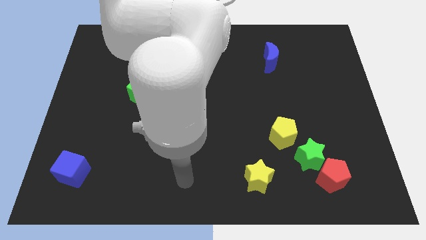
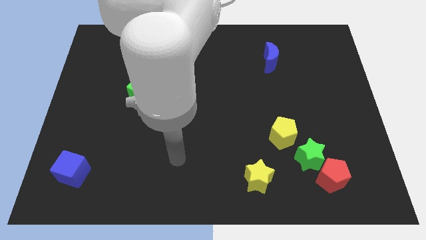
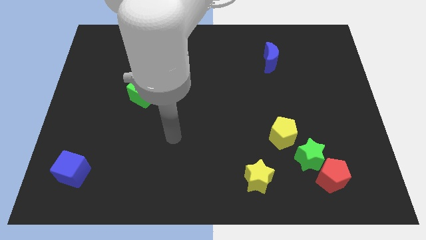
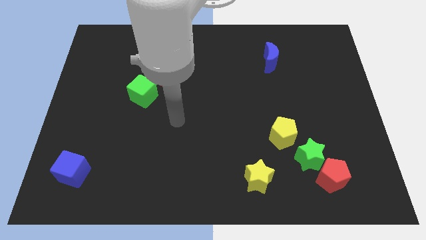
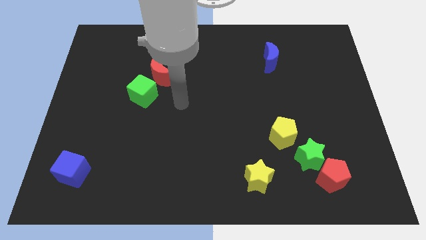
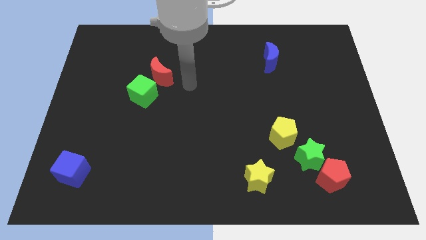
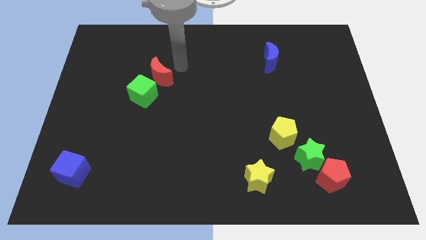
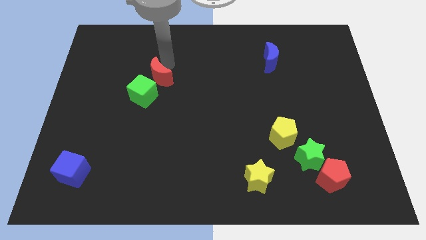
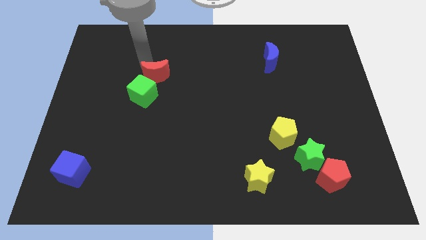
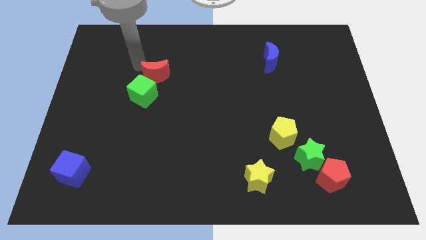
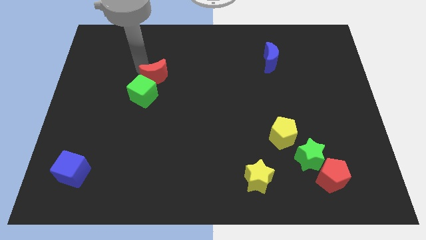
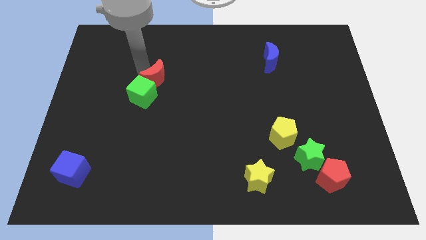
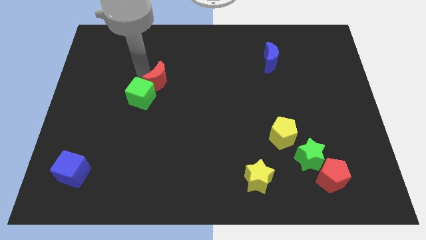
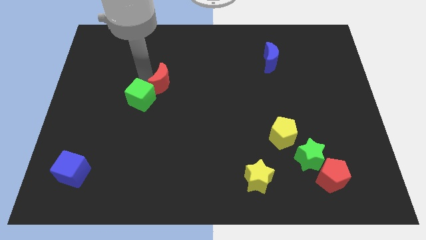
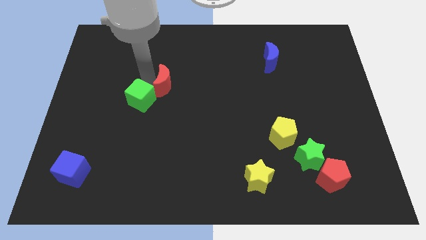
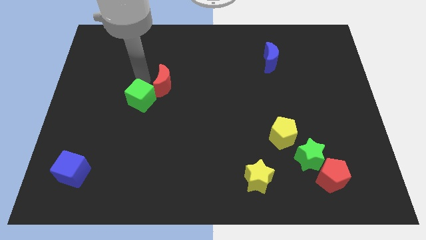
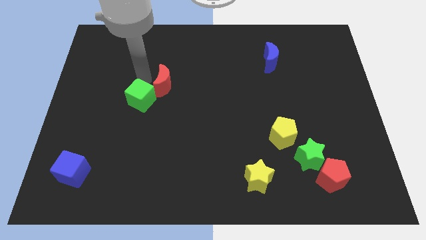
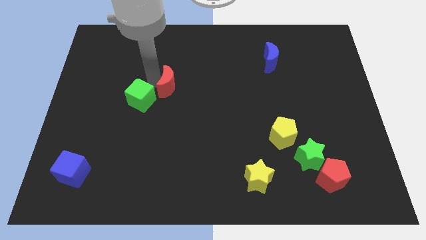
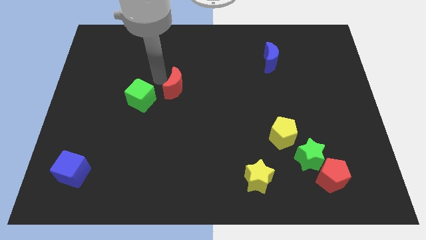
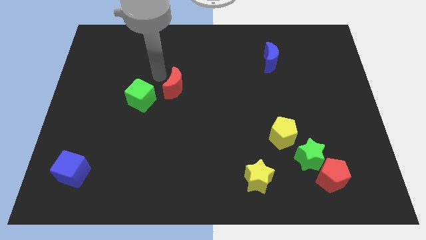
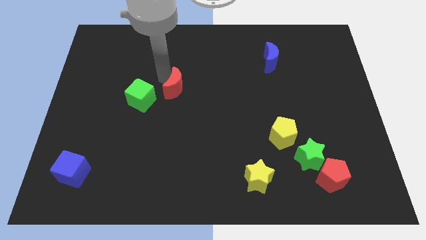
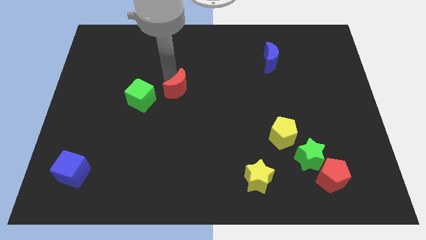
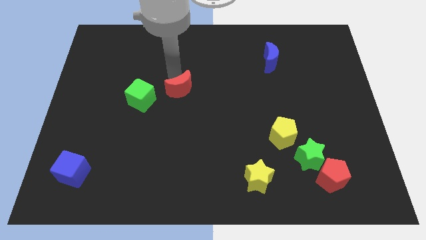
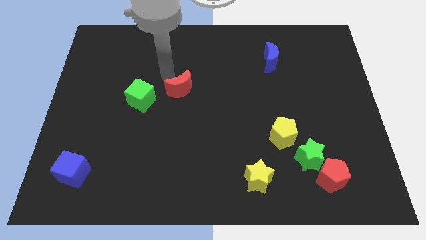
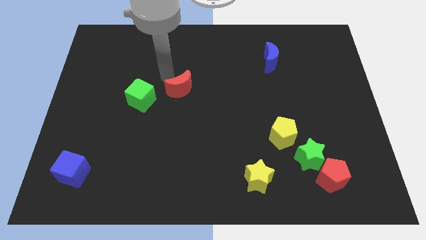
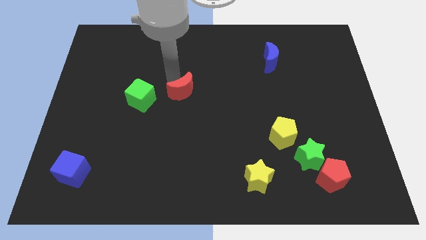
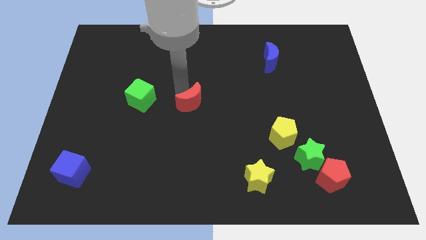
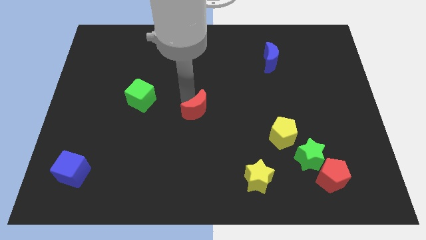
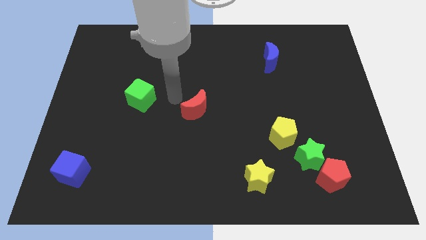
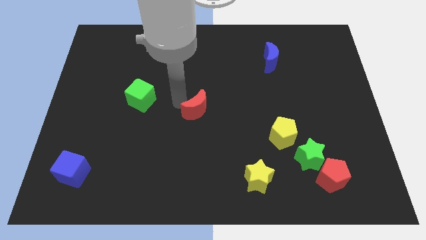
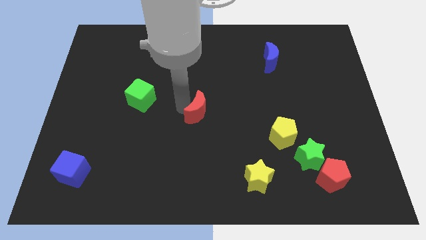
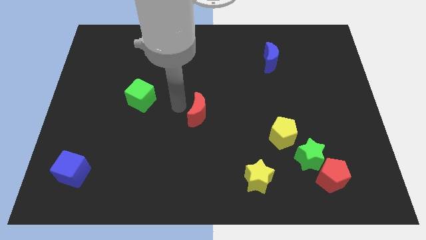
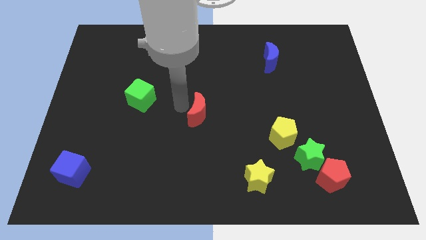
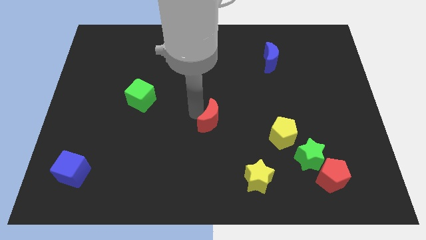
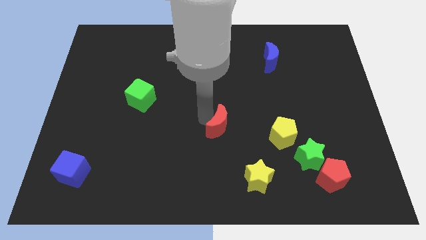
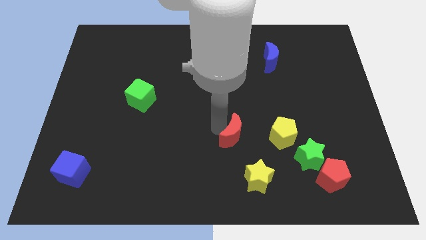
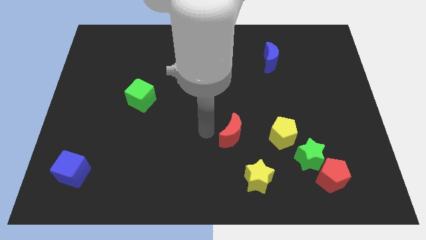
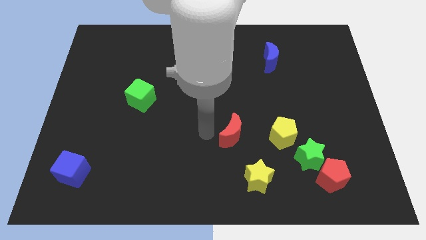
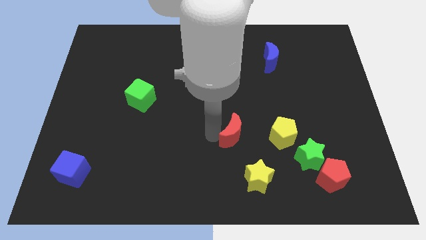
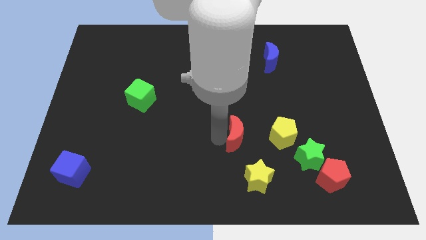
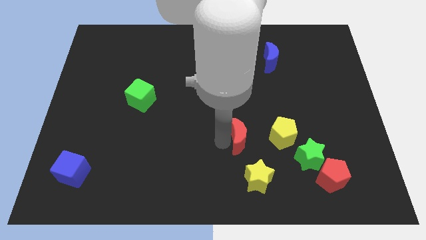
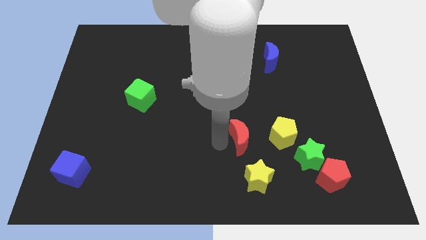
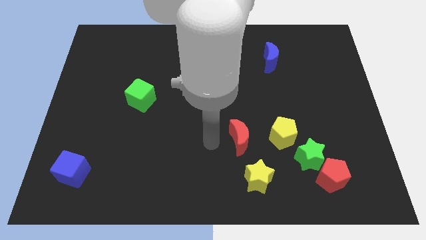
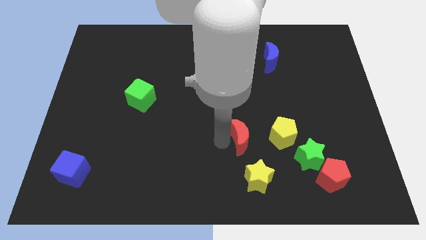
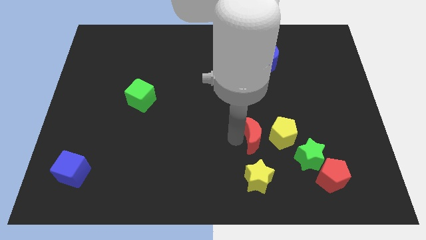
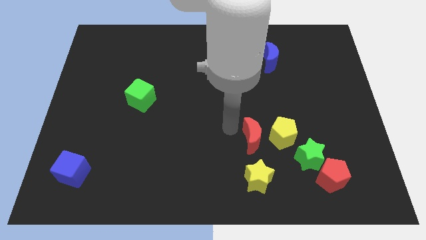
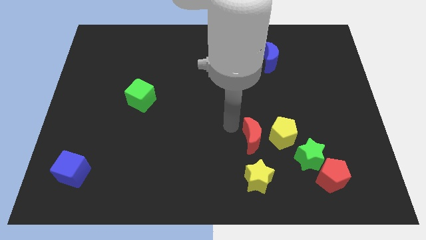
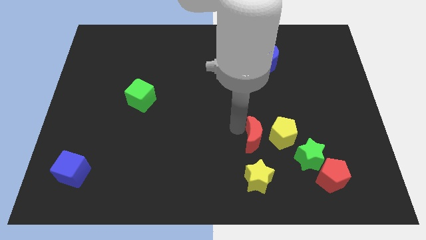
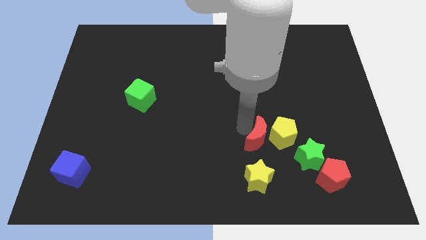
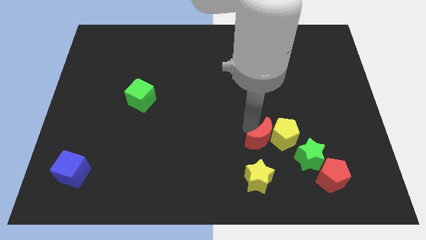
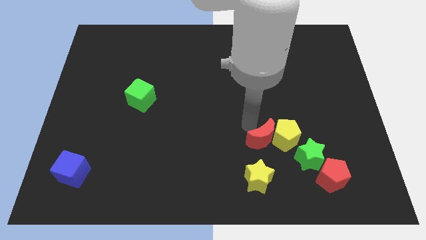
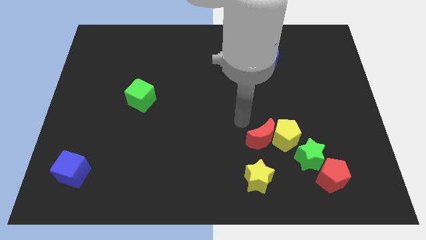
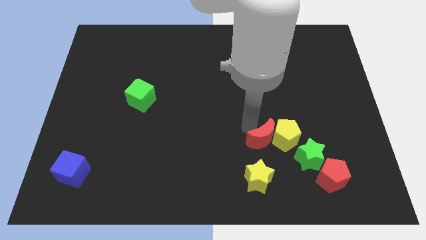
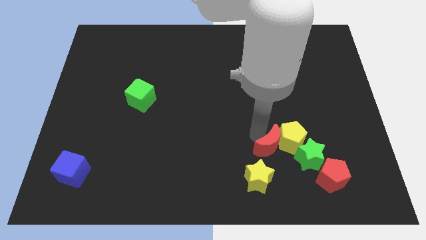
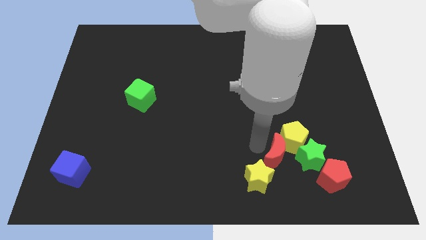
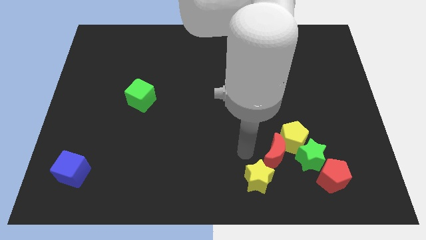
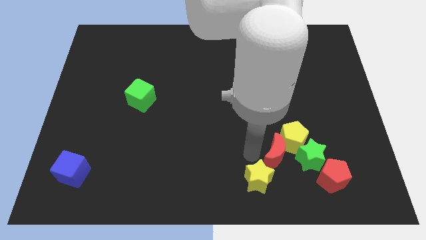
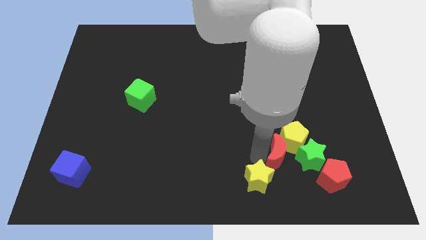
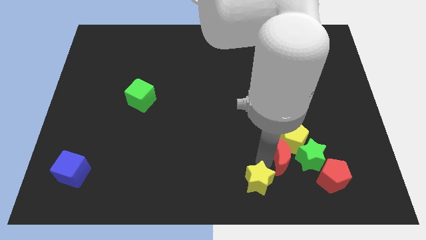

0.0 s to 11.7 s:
move the red moon close to the green star

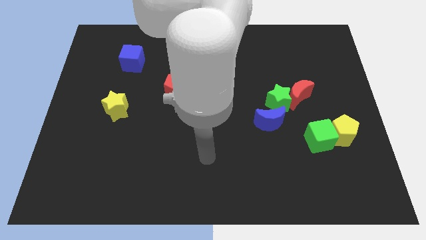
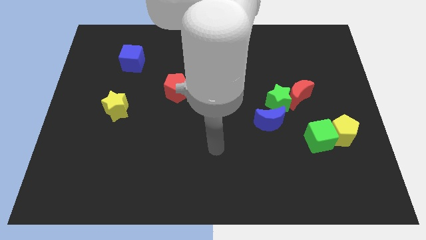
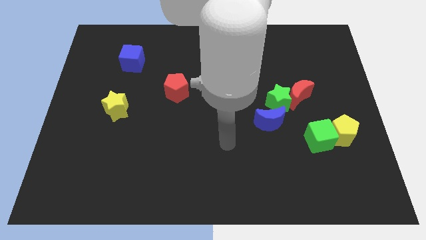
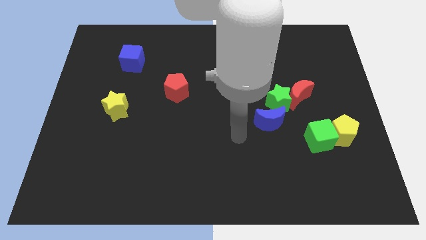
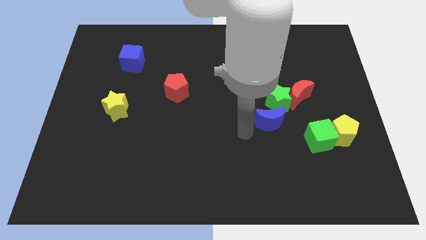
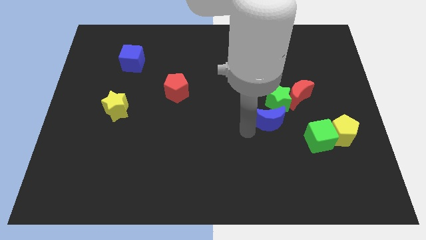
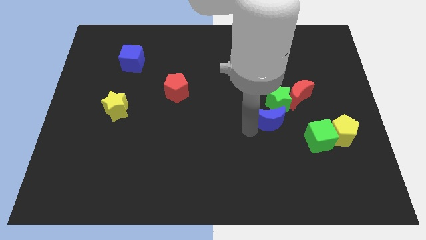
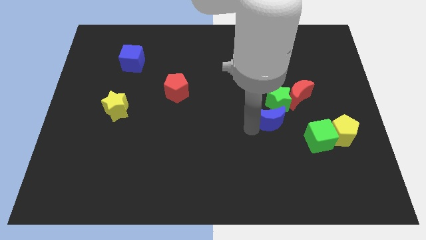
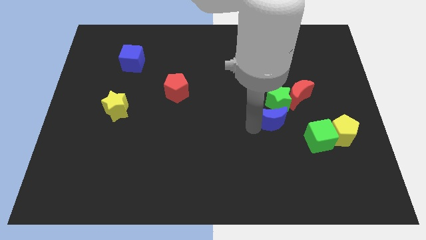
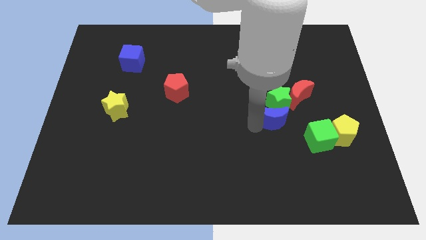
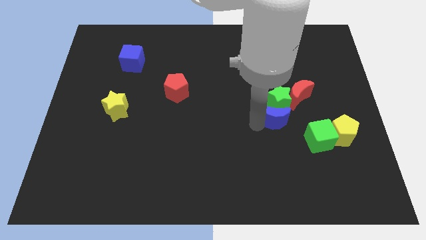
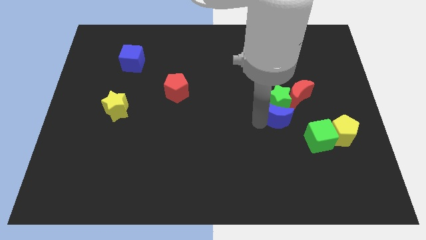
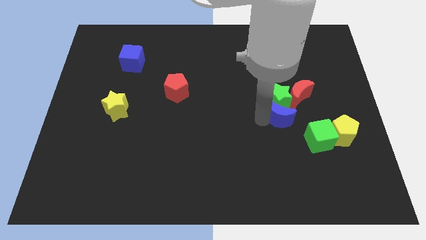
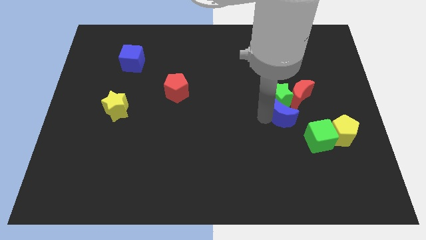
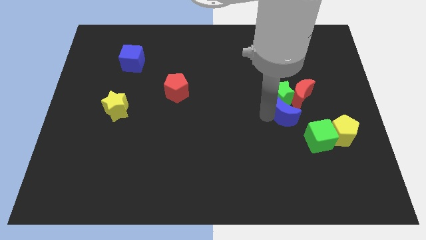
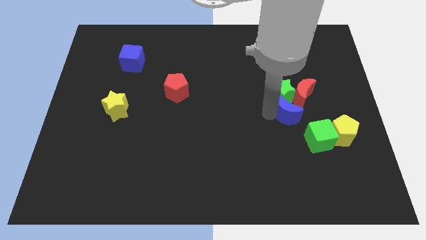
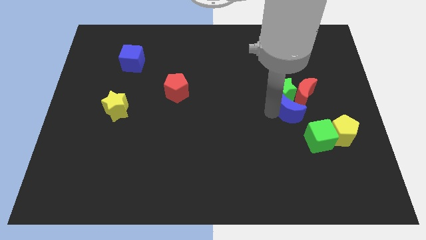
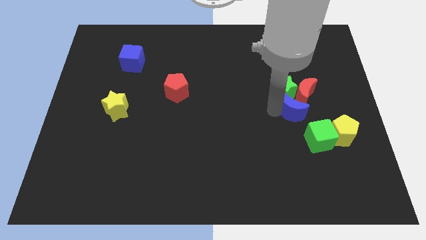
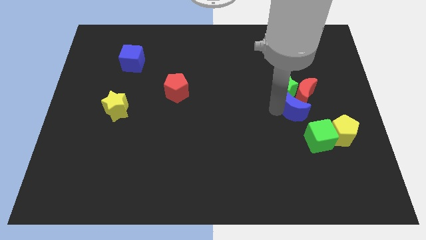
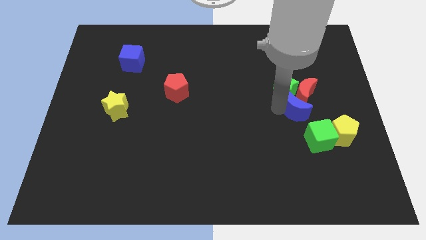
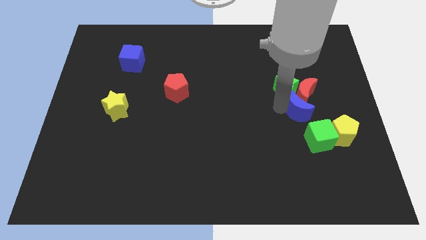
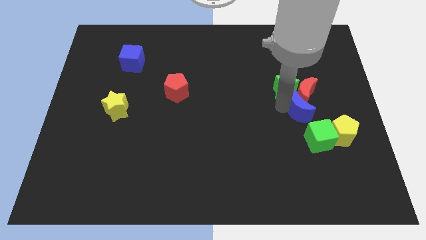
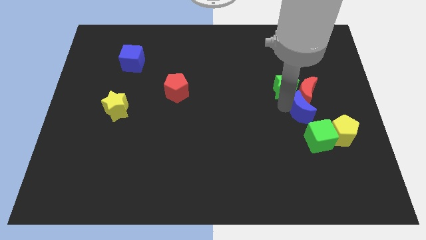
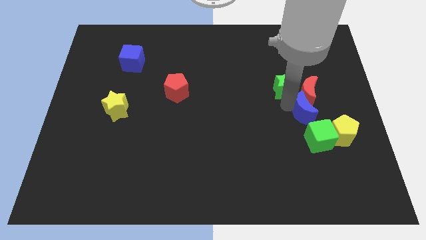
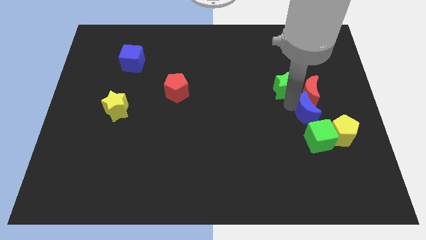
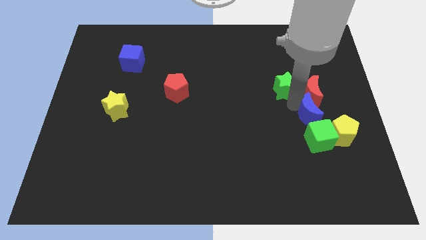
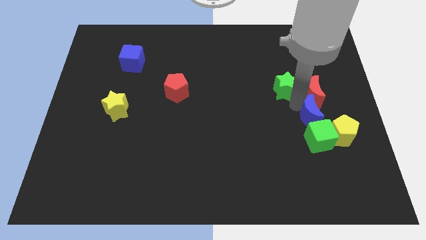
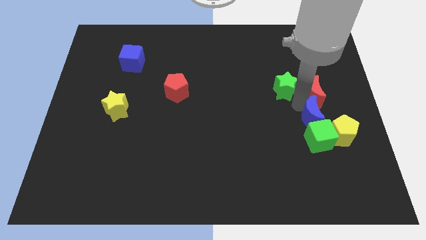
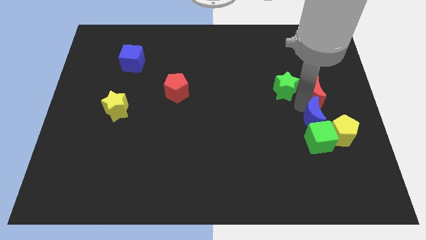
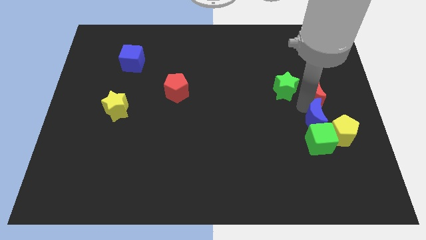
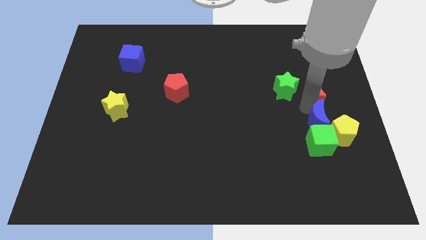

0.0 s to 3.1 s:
put the blue moon close to the yellow pentagon
